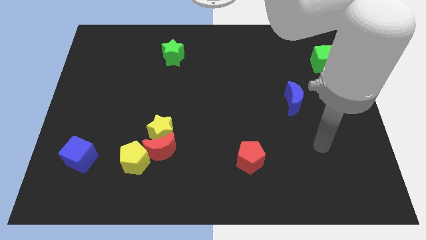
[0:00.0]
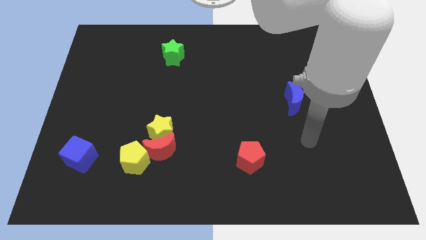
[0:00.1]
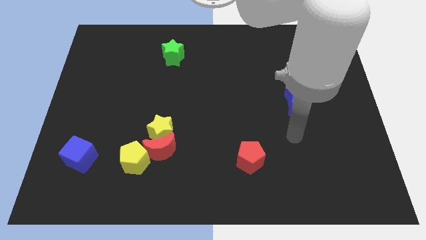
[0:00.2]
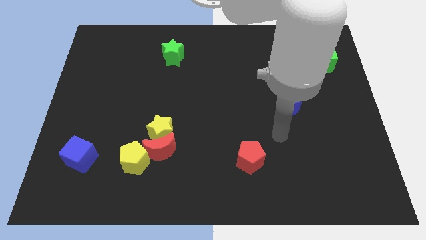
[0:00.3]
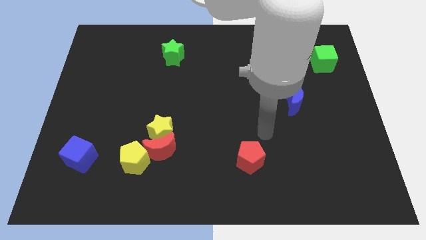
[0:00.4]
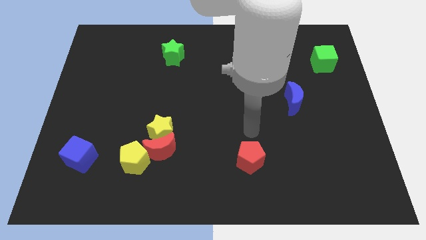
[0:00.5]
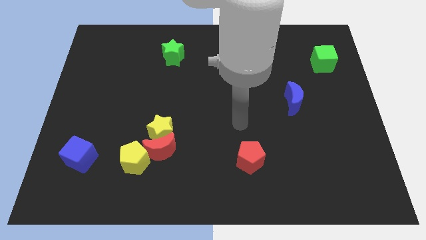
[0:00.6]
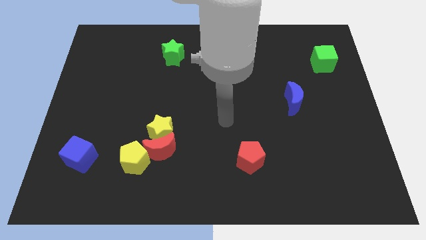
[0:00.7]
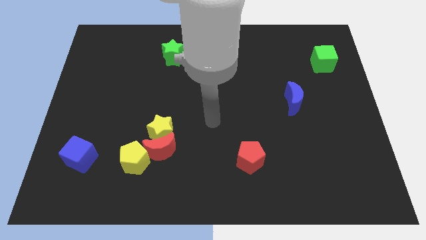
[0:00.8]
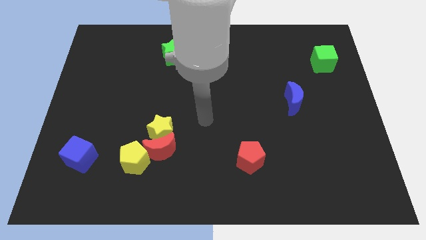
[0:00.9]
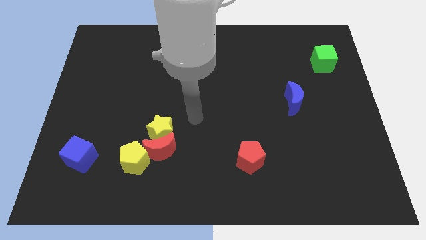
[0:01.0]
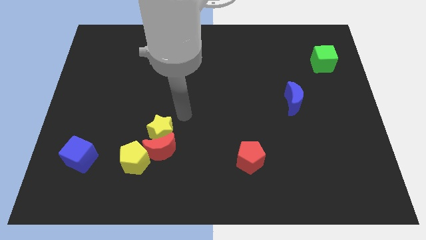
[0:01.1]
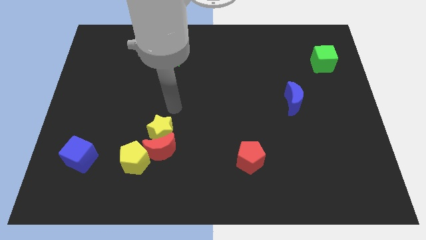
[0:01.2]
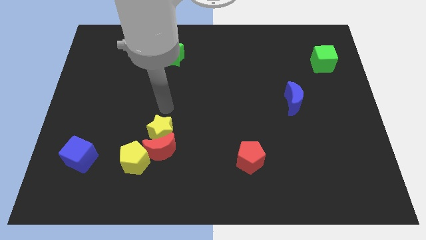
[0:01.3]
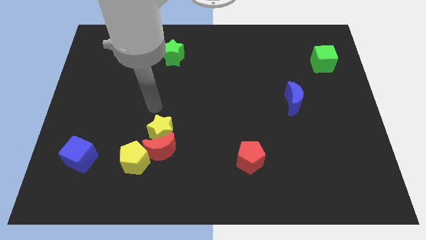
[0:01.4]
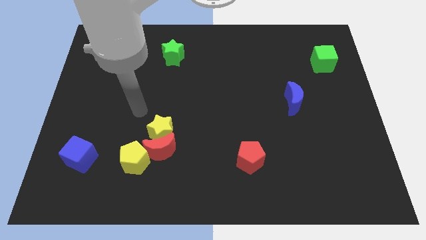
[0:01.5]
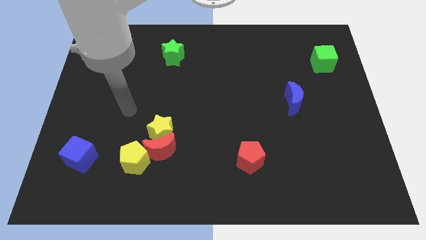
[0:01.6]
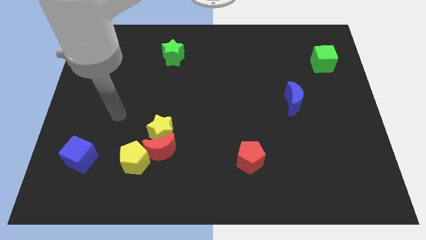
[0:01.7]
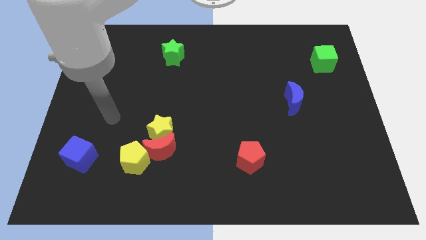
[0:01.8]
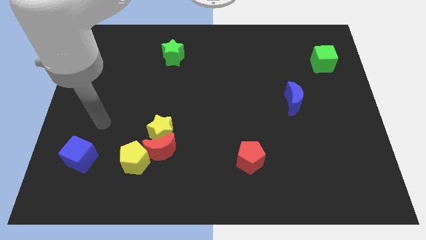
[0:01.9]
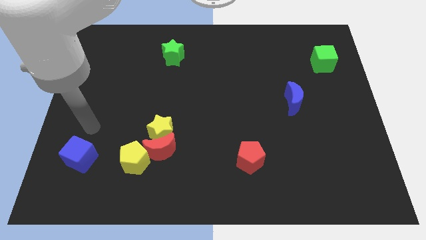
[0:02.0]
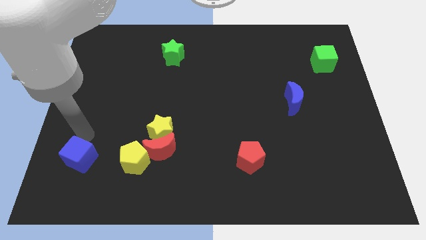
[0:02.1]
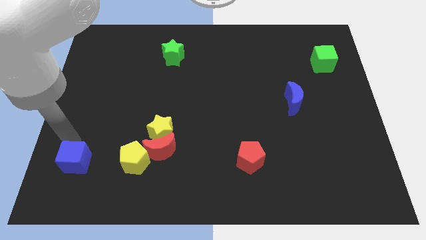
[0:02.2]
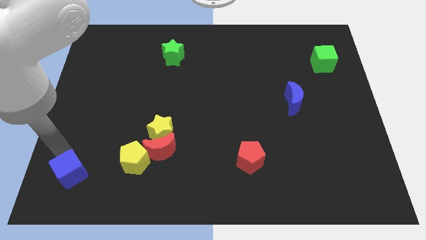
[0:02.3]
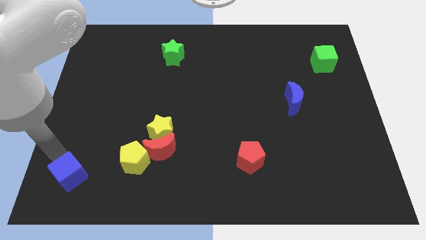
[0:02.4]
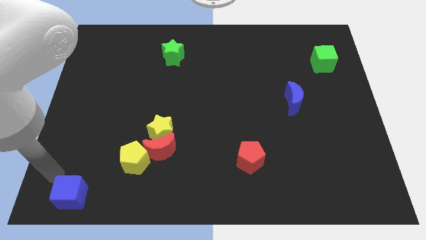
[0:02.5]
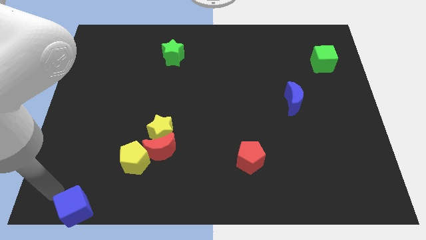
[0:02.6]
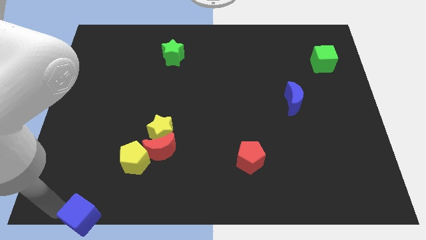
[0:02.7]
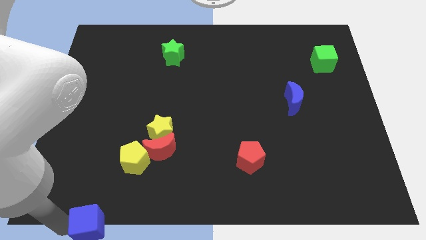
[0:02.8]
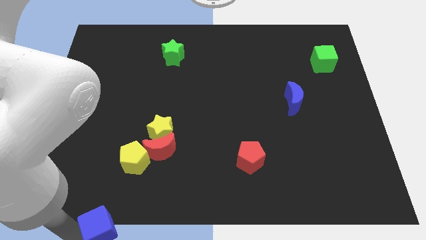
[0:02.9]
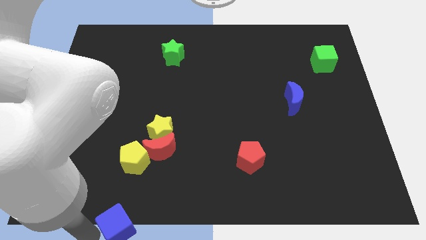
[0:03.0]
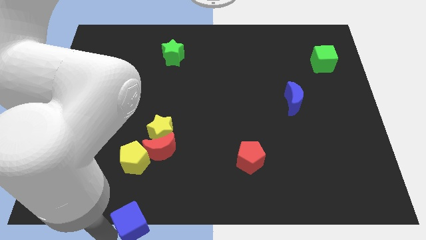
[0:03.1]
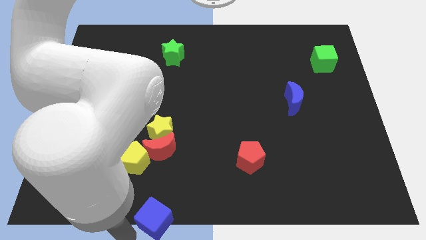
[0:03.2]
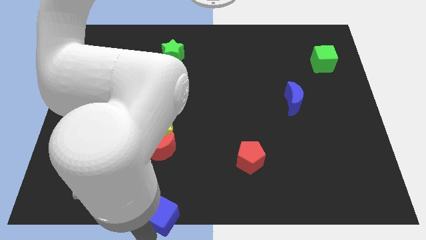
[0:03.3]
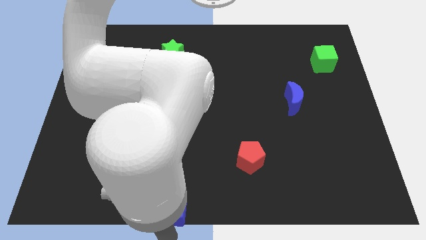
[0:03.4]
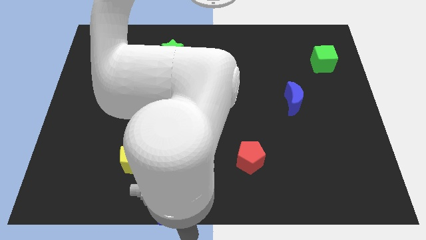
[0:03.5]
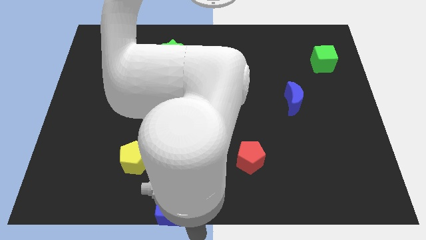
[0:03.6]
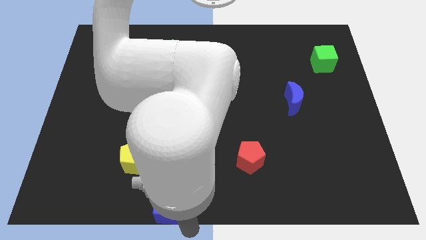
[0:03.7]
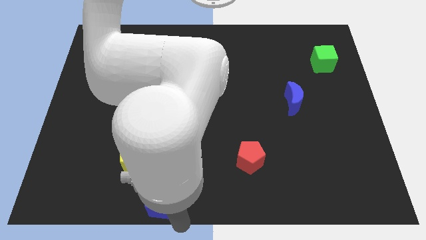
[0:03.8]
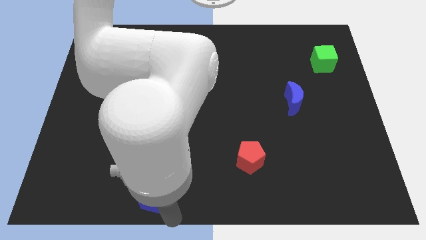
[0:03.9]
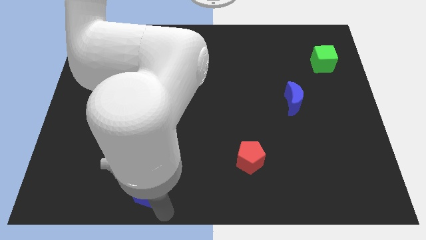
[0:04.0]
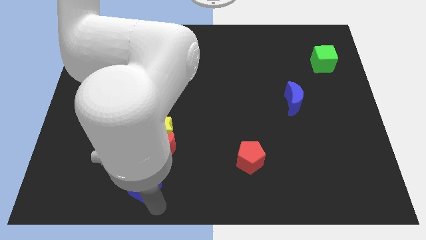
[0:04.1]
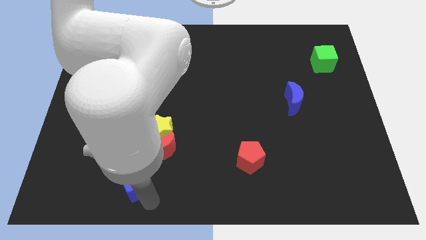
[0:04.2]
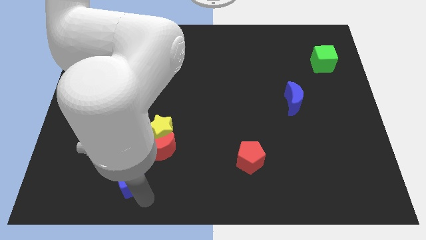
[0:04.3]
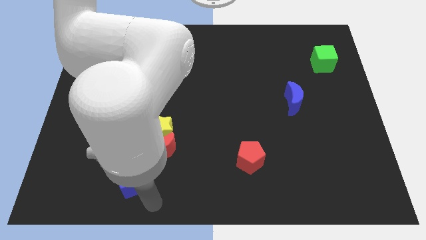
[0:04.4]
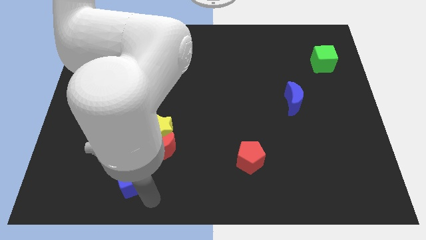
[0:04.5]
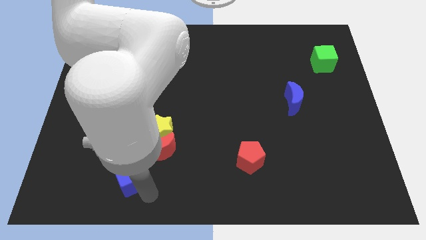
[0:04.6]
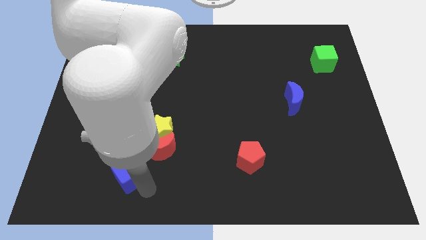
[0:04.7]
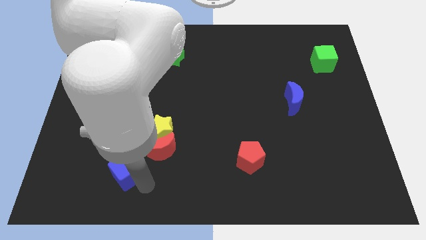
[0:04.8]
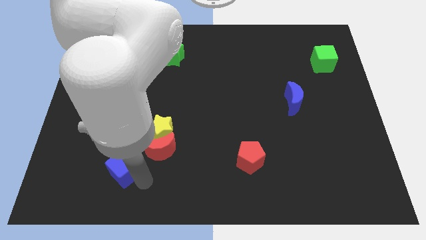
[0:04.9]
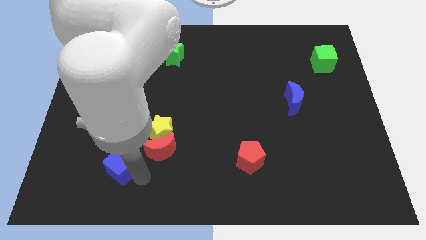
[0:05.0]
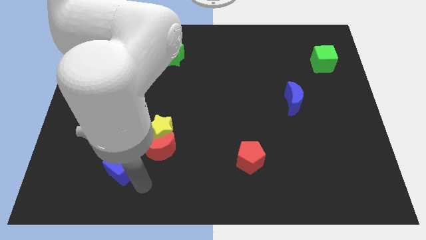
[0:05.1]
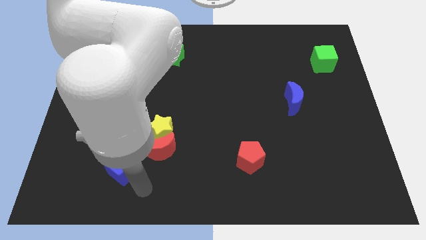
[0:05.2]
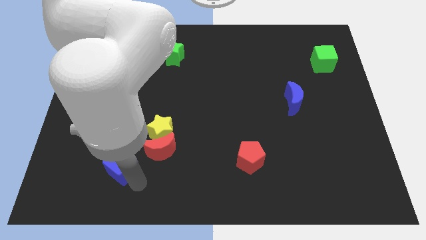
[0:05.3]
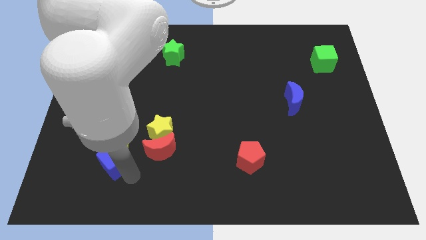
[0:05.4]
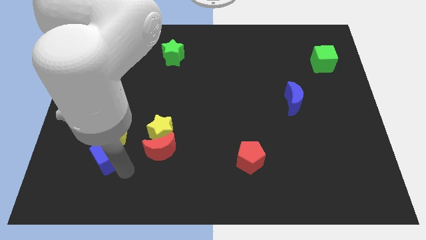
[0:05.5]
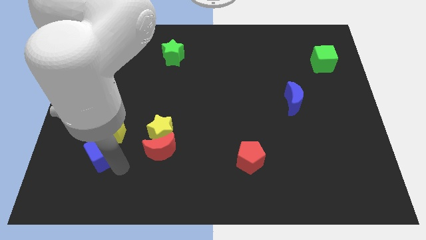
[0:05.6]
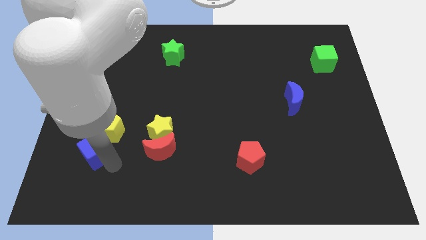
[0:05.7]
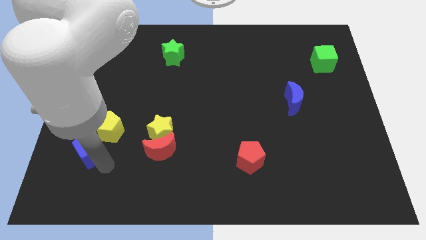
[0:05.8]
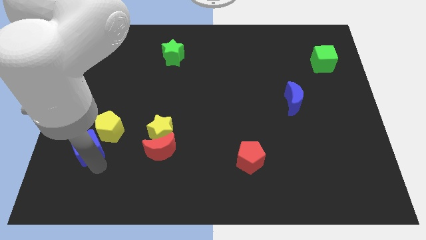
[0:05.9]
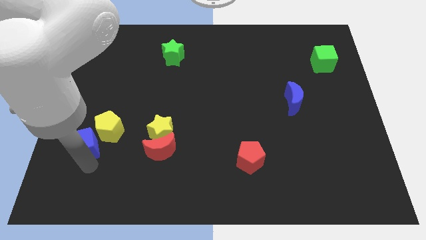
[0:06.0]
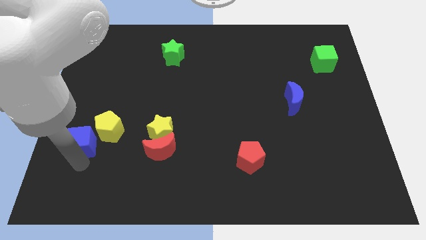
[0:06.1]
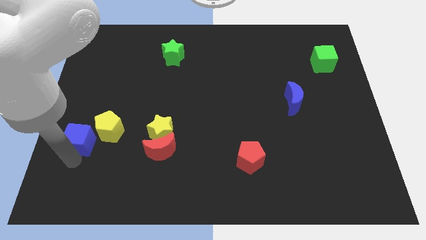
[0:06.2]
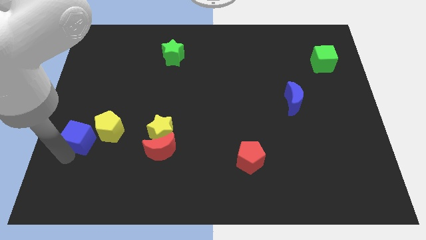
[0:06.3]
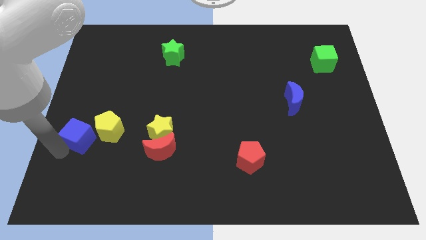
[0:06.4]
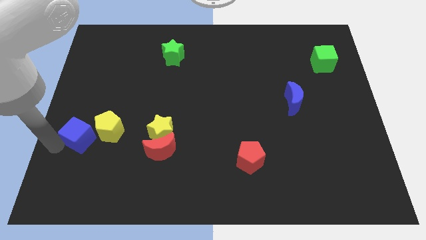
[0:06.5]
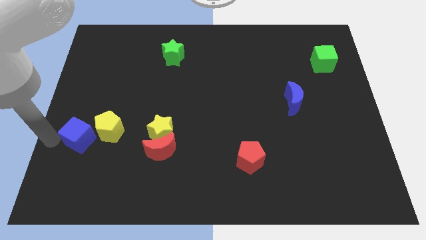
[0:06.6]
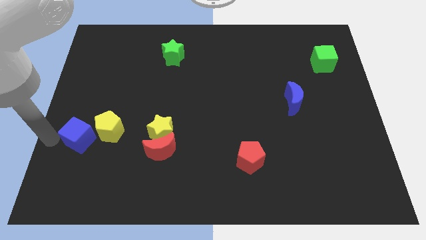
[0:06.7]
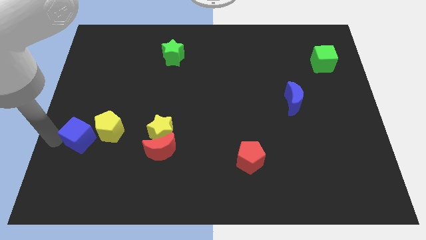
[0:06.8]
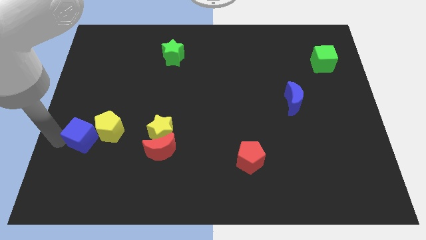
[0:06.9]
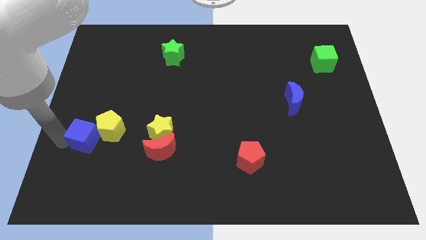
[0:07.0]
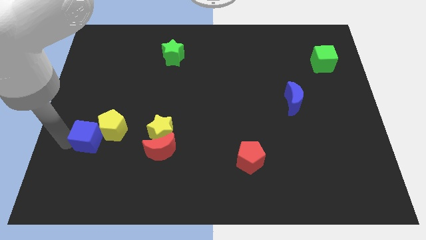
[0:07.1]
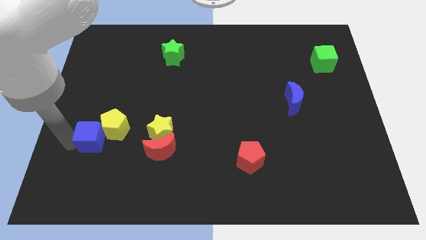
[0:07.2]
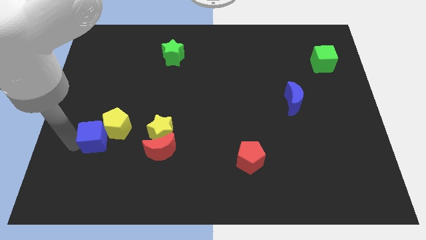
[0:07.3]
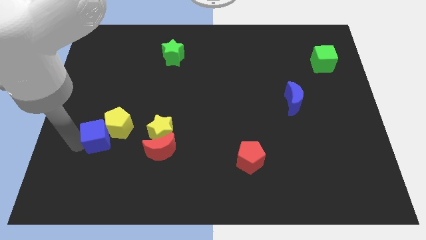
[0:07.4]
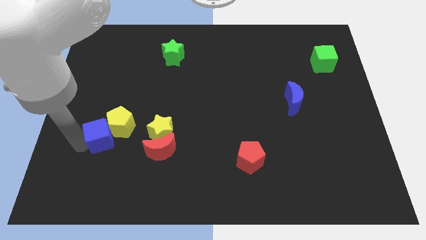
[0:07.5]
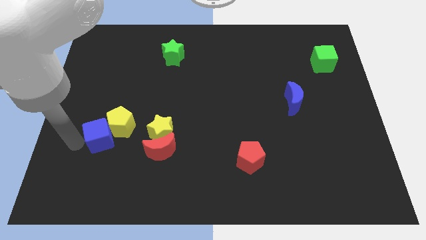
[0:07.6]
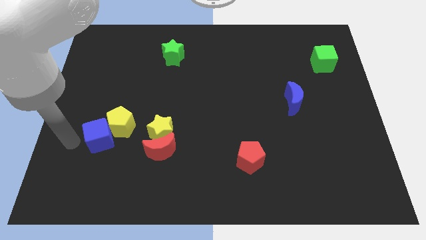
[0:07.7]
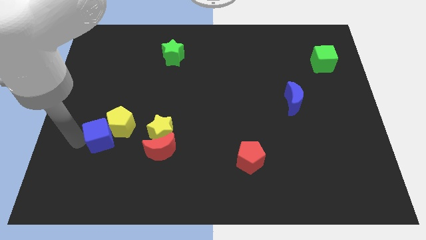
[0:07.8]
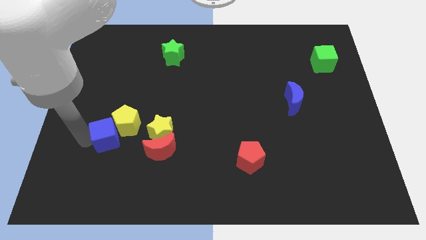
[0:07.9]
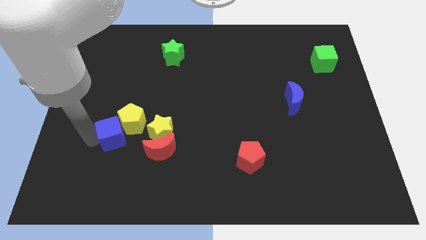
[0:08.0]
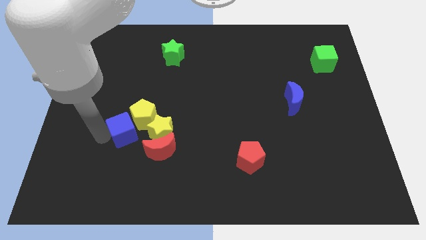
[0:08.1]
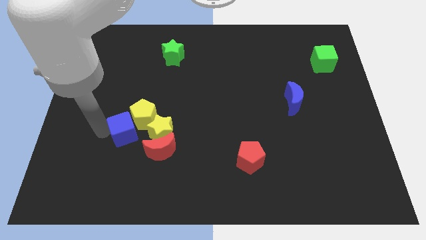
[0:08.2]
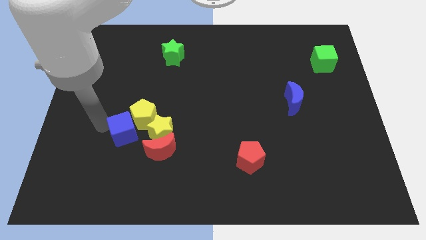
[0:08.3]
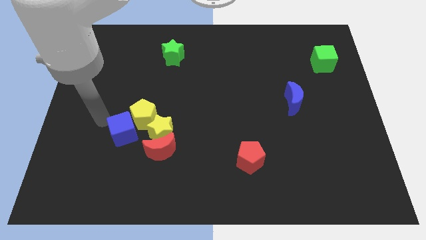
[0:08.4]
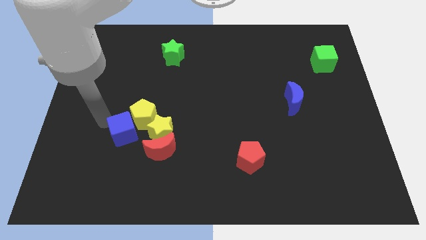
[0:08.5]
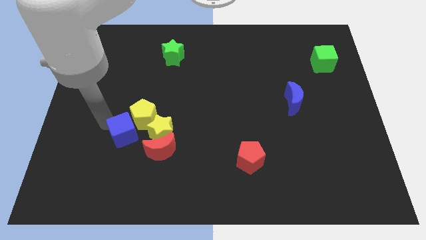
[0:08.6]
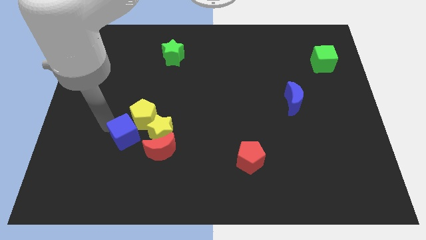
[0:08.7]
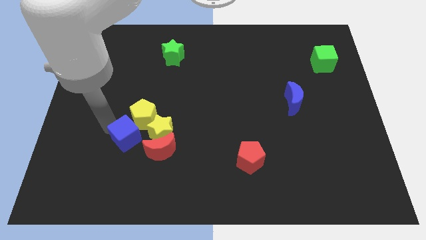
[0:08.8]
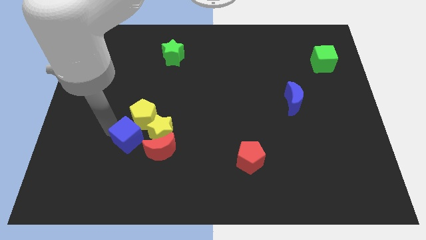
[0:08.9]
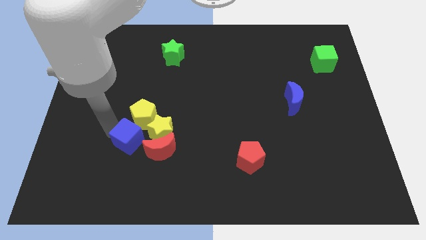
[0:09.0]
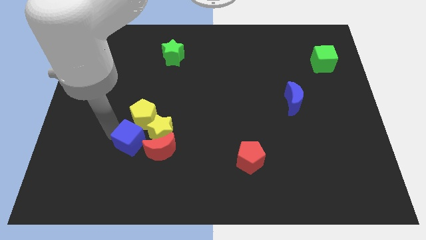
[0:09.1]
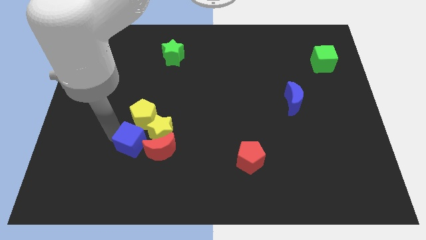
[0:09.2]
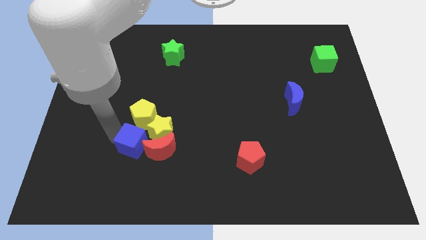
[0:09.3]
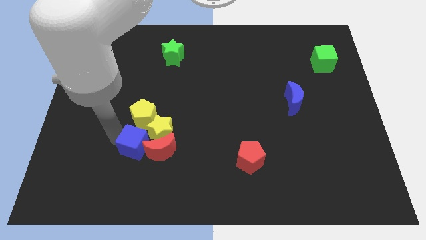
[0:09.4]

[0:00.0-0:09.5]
put the blue cube towards the red moon
